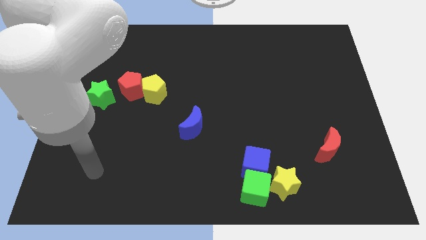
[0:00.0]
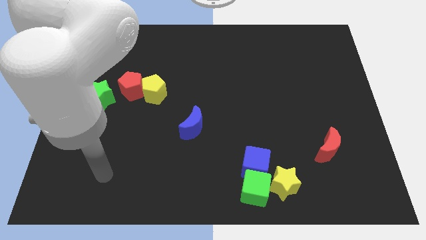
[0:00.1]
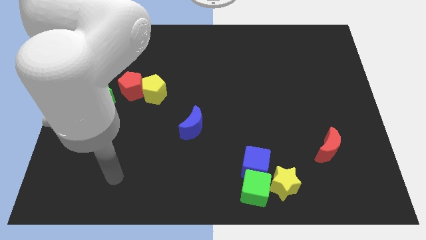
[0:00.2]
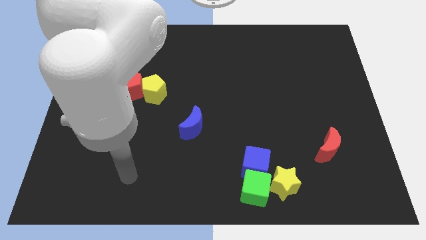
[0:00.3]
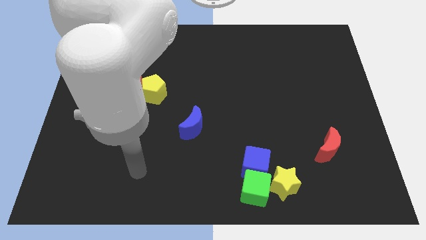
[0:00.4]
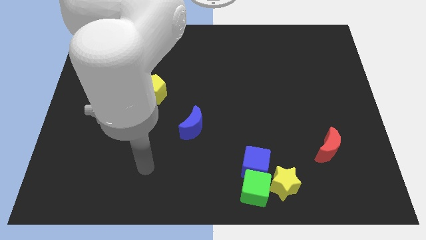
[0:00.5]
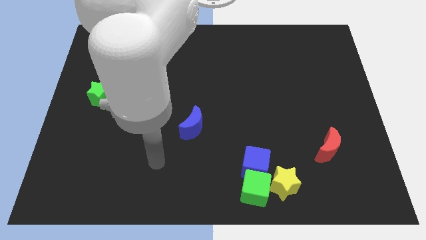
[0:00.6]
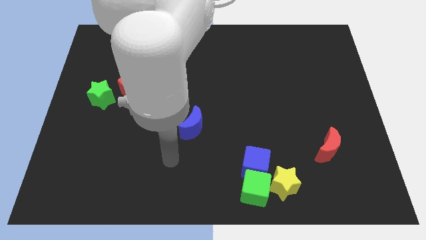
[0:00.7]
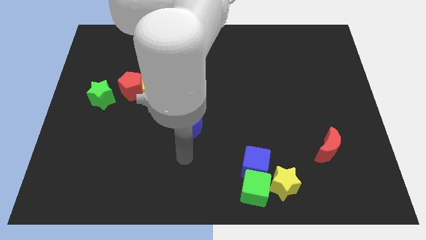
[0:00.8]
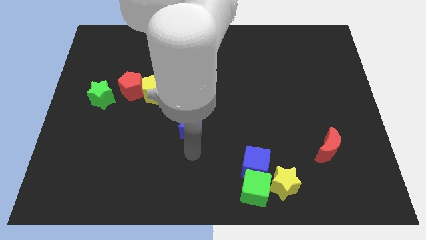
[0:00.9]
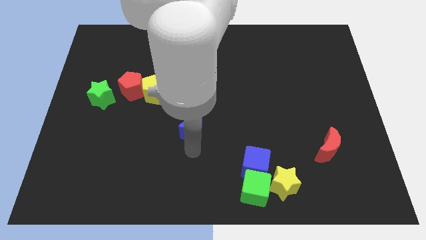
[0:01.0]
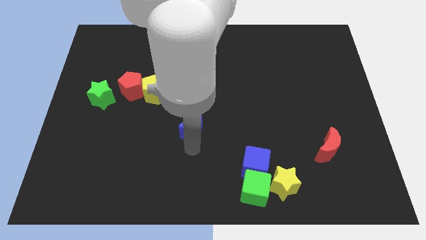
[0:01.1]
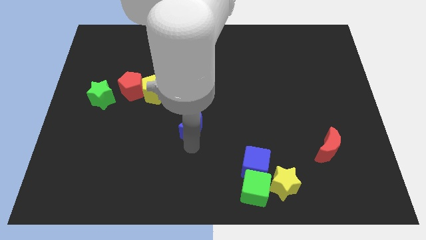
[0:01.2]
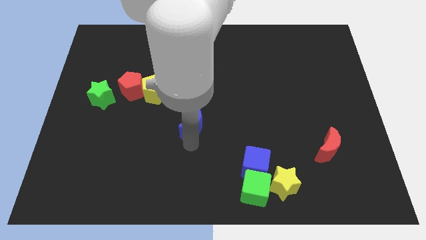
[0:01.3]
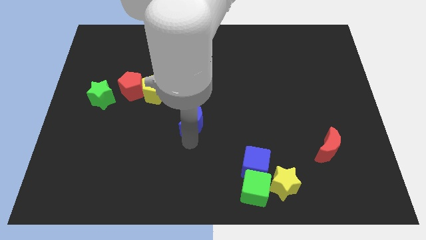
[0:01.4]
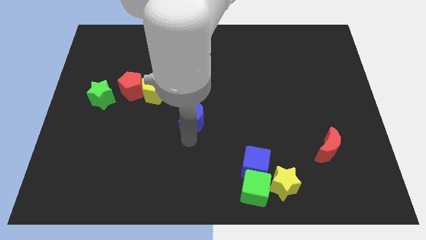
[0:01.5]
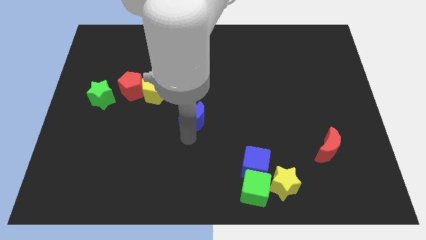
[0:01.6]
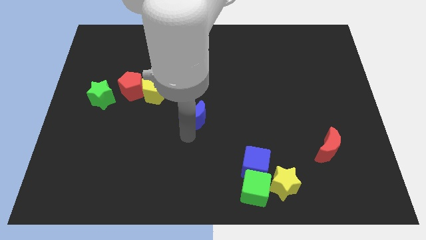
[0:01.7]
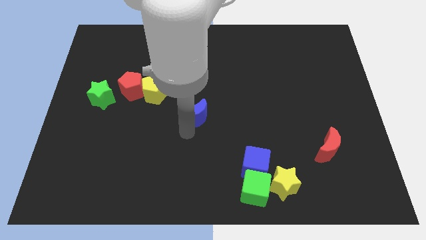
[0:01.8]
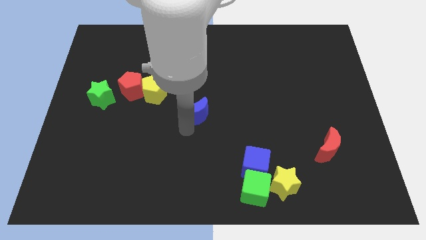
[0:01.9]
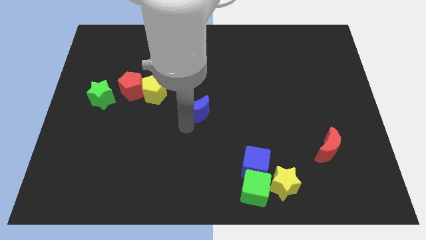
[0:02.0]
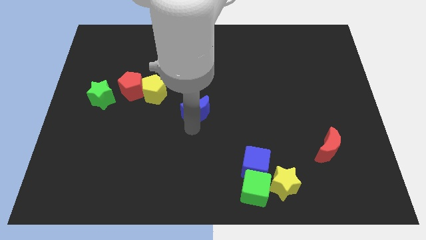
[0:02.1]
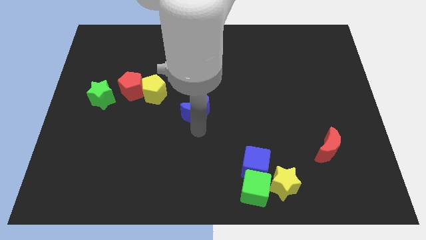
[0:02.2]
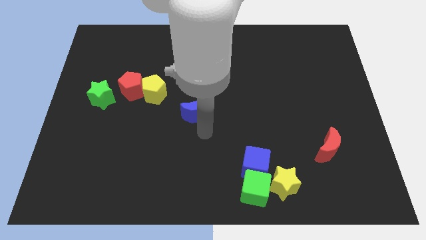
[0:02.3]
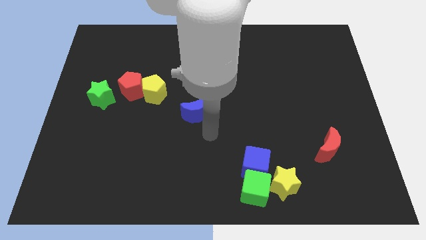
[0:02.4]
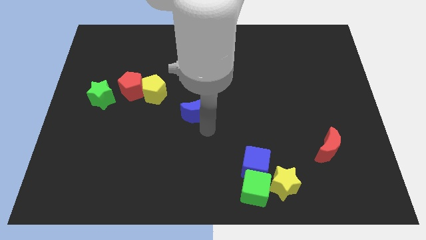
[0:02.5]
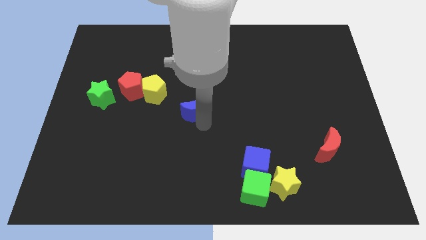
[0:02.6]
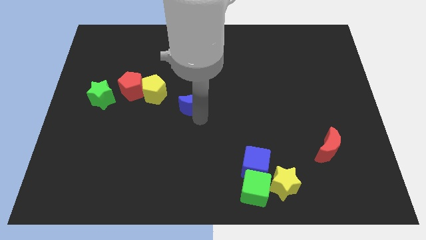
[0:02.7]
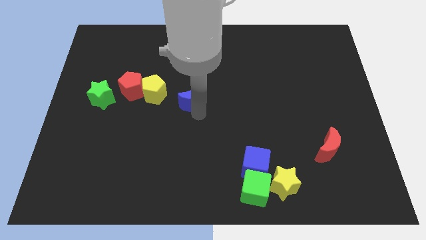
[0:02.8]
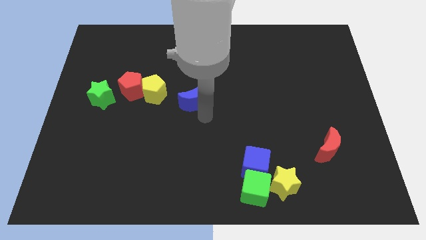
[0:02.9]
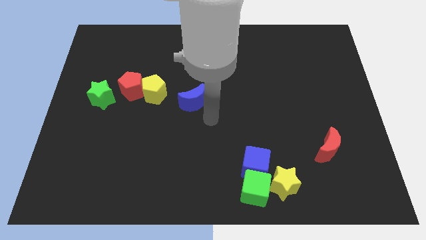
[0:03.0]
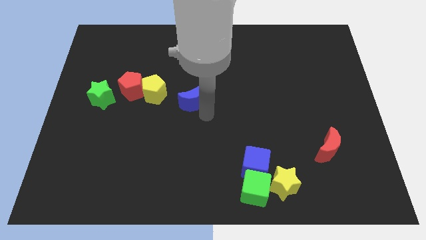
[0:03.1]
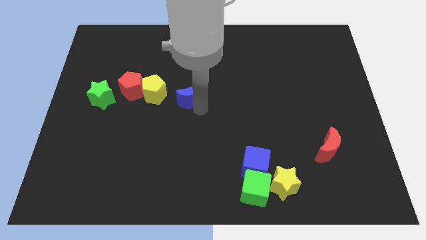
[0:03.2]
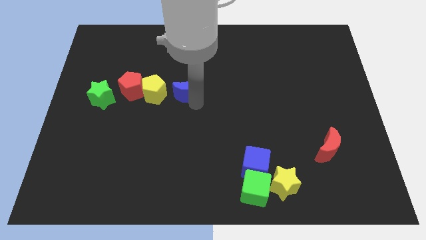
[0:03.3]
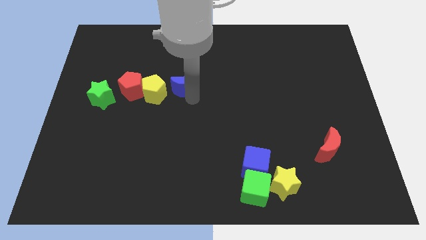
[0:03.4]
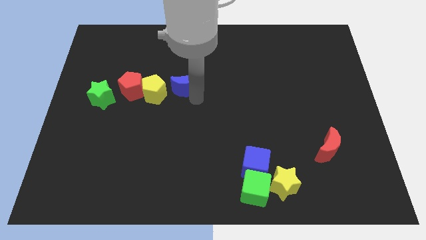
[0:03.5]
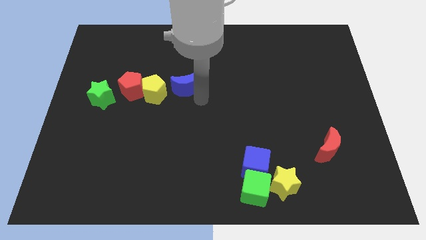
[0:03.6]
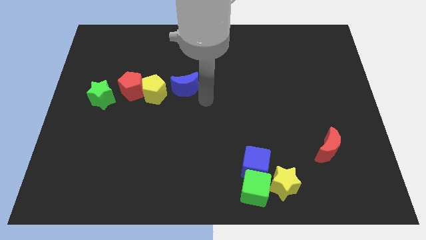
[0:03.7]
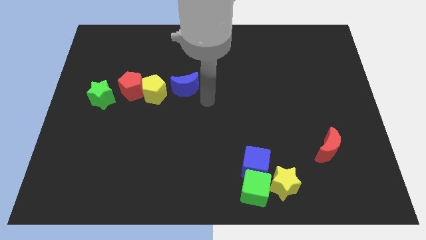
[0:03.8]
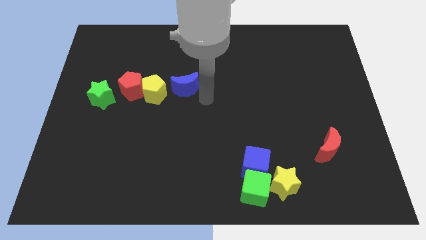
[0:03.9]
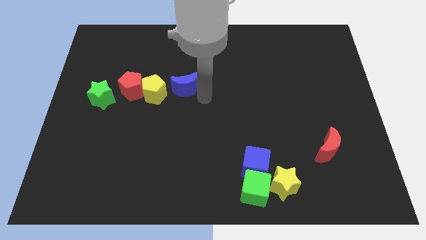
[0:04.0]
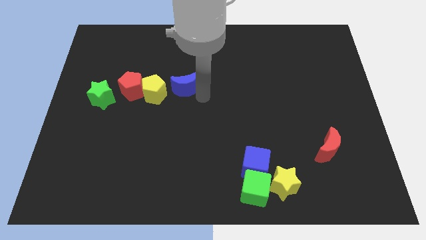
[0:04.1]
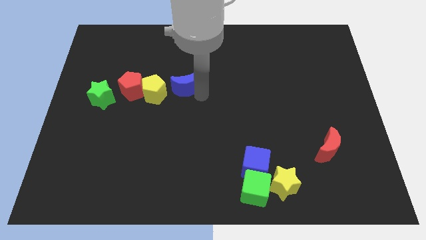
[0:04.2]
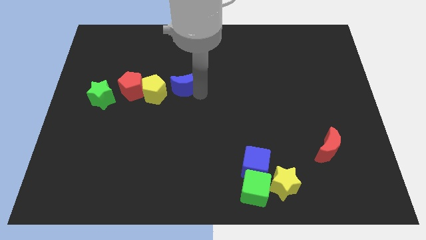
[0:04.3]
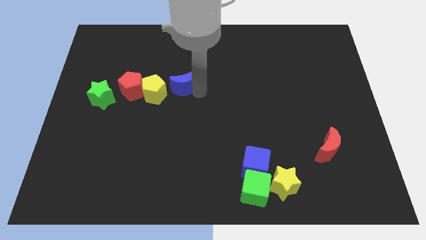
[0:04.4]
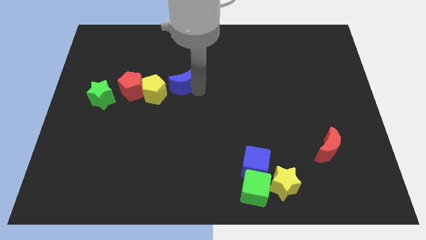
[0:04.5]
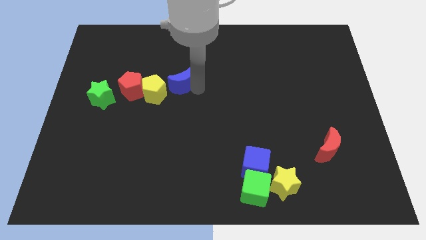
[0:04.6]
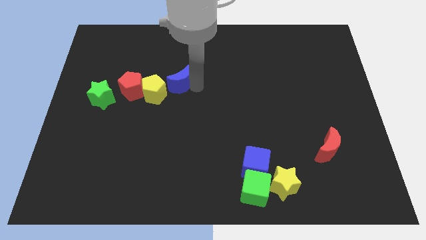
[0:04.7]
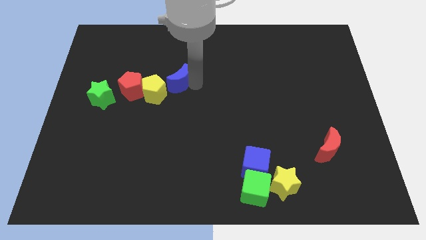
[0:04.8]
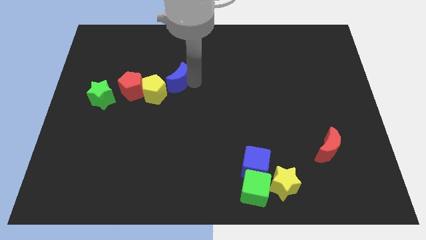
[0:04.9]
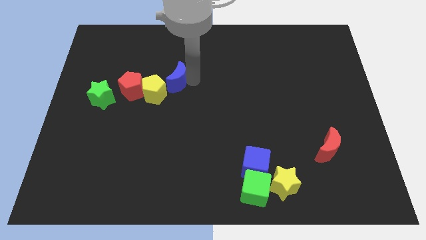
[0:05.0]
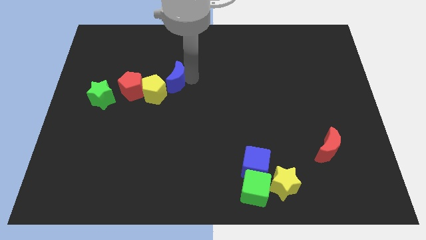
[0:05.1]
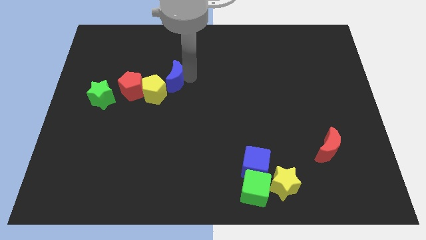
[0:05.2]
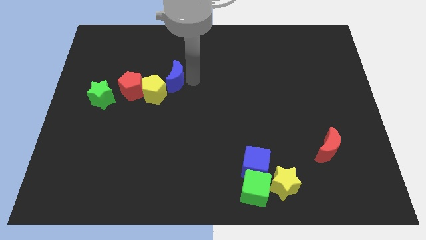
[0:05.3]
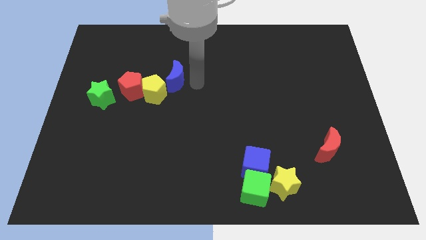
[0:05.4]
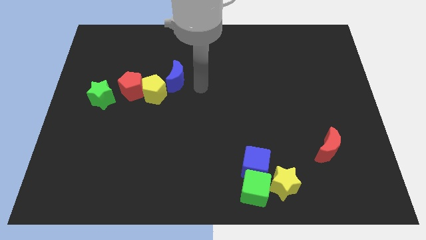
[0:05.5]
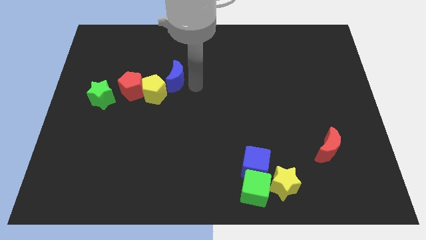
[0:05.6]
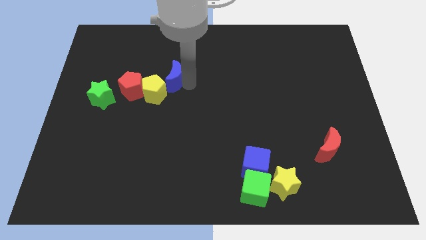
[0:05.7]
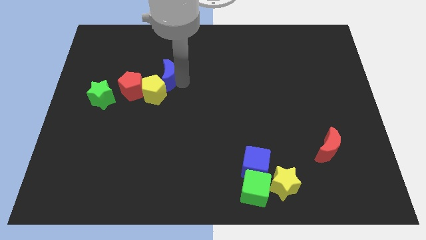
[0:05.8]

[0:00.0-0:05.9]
put the blue moon to the top right of the red pentagon
